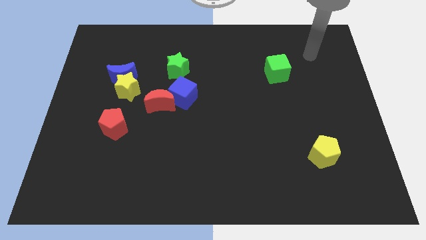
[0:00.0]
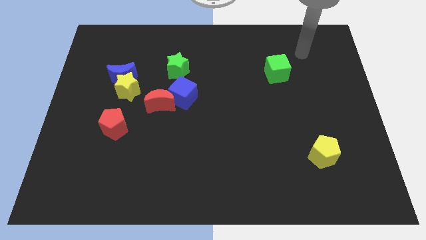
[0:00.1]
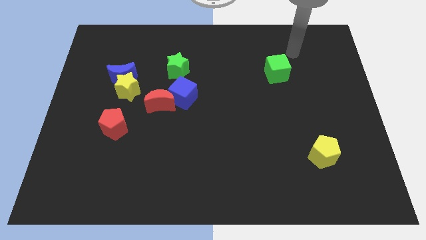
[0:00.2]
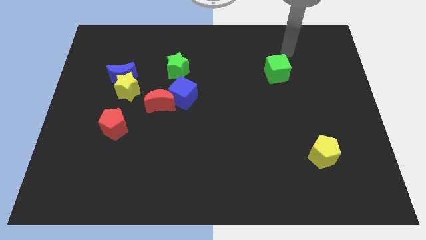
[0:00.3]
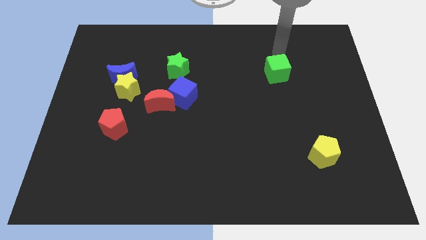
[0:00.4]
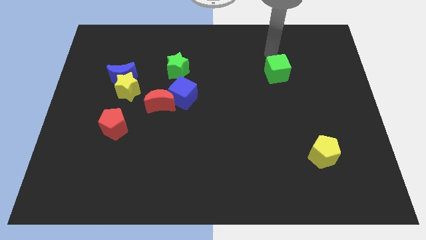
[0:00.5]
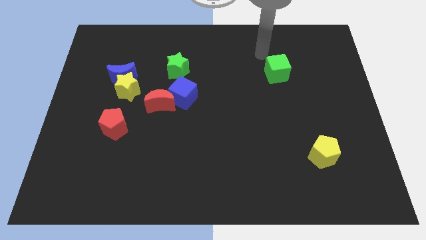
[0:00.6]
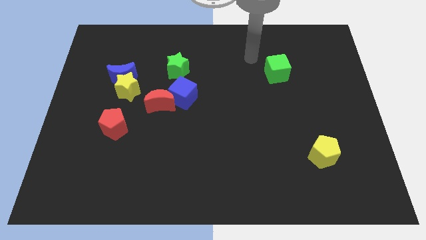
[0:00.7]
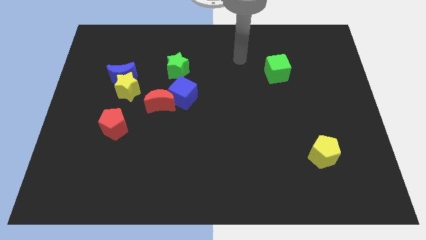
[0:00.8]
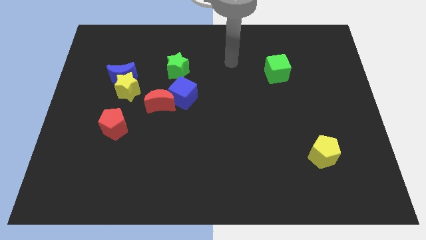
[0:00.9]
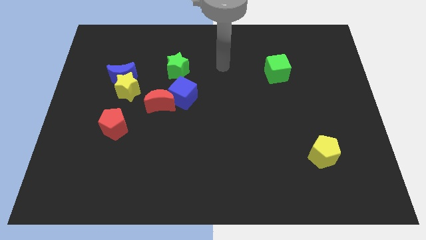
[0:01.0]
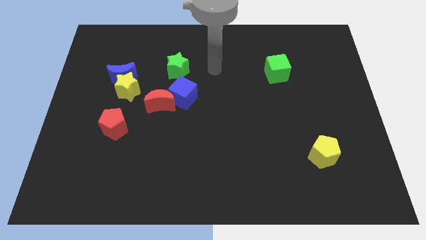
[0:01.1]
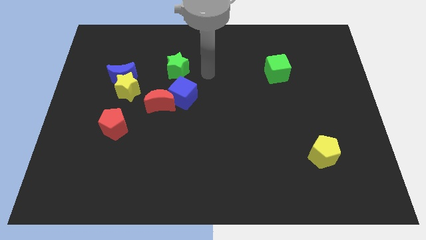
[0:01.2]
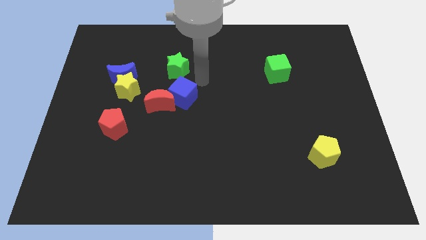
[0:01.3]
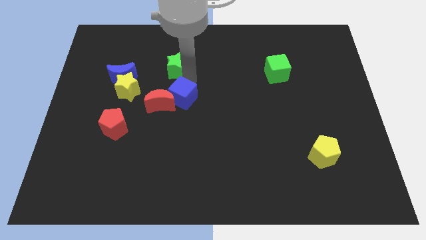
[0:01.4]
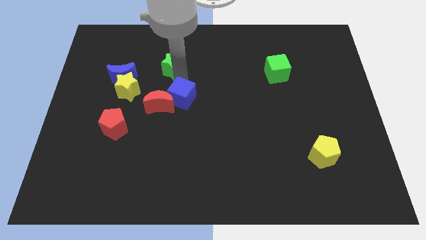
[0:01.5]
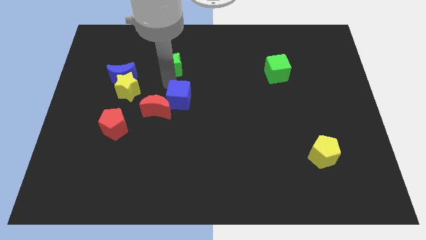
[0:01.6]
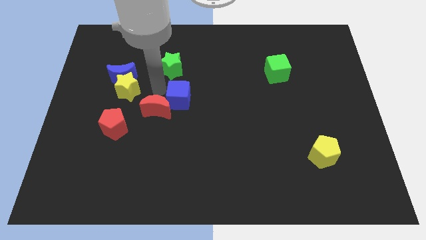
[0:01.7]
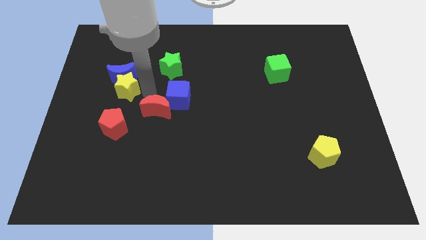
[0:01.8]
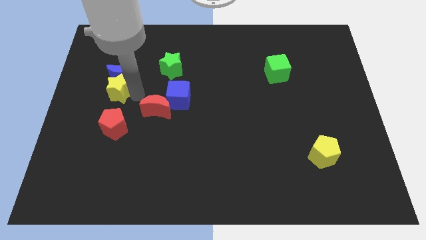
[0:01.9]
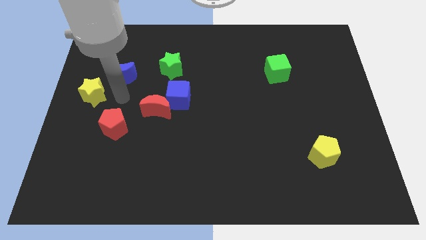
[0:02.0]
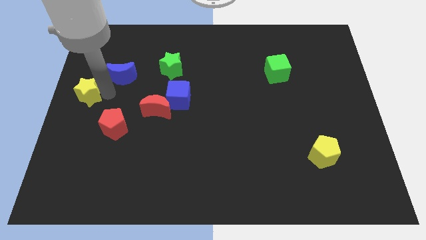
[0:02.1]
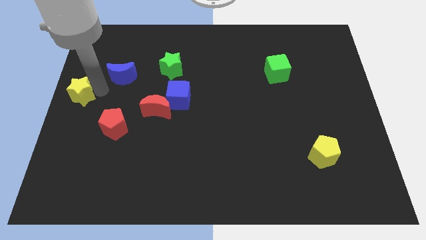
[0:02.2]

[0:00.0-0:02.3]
pull the blue moon apart from the yellow star

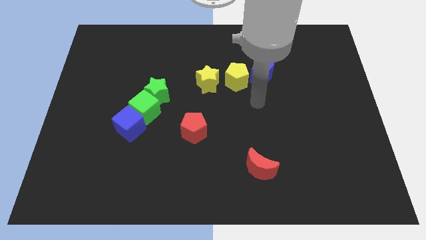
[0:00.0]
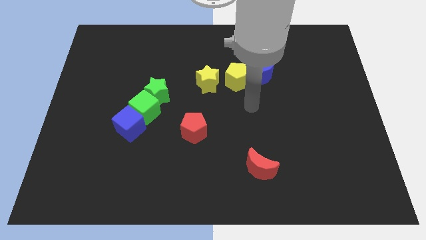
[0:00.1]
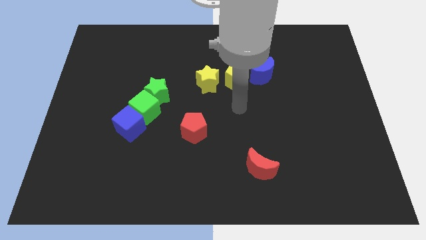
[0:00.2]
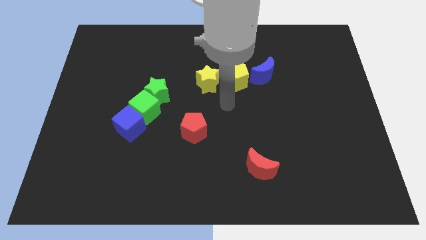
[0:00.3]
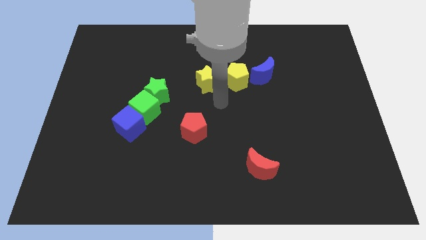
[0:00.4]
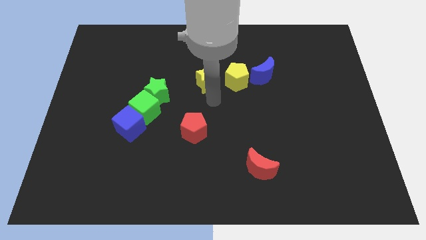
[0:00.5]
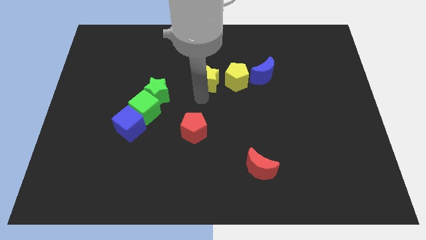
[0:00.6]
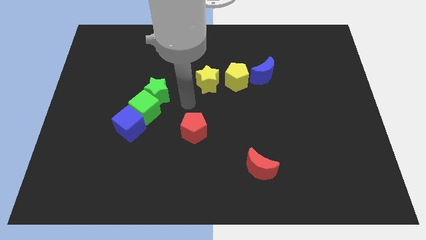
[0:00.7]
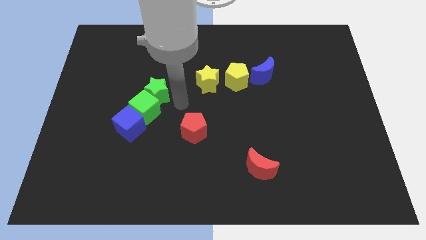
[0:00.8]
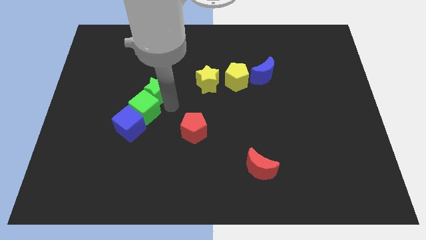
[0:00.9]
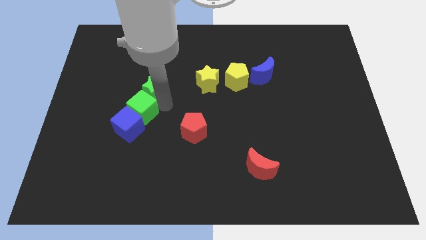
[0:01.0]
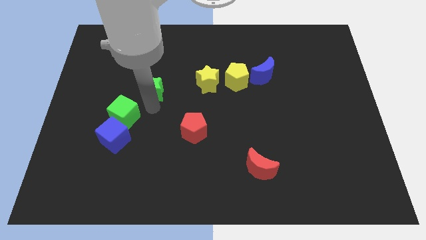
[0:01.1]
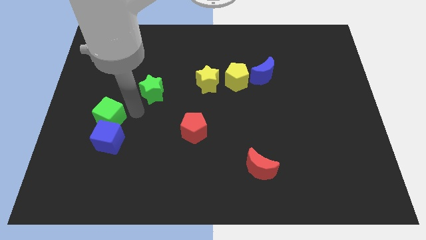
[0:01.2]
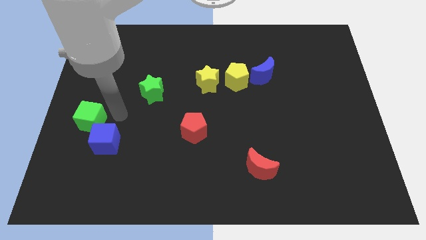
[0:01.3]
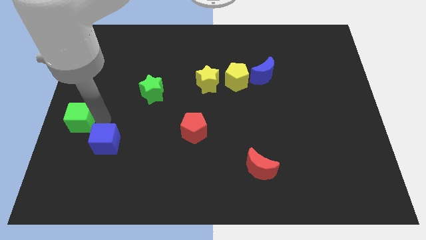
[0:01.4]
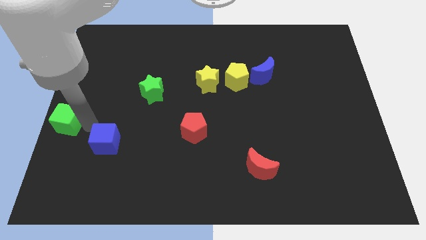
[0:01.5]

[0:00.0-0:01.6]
move the blue cube away from the green cube

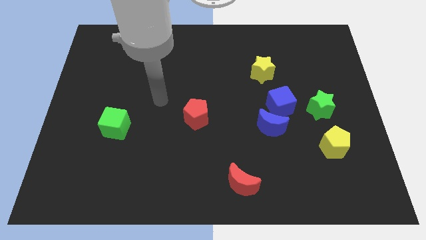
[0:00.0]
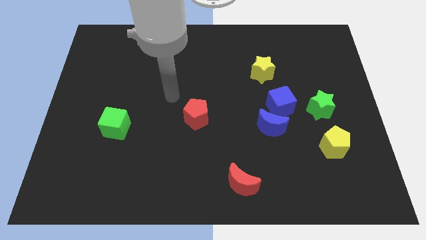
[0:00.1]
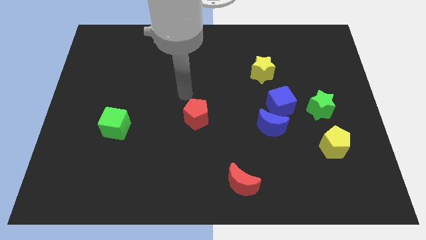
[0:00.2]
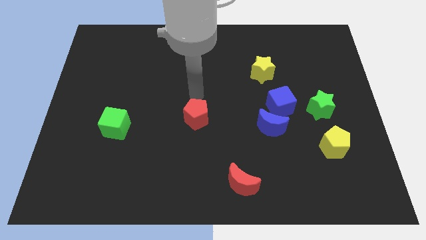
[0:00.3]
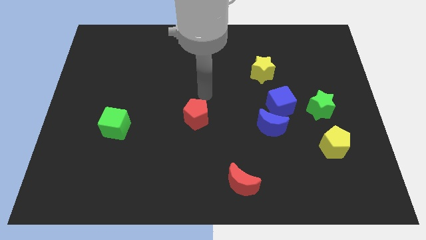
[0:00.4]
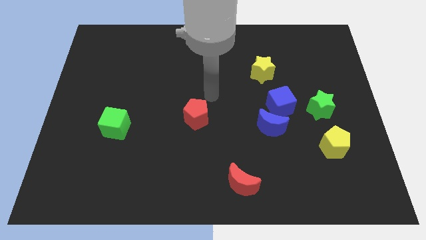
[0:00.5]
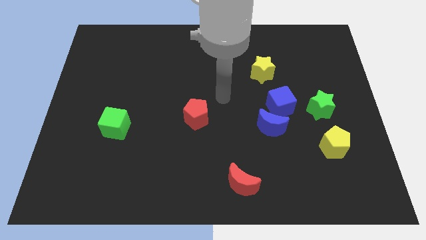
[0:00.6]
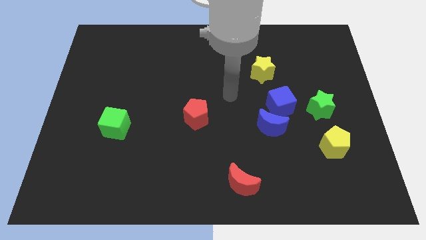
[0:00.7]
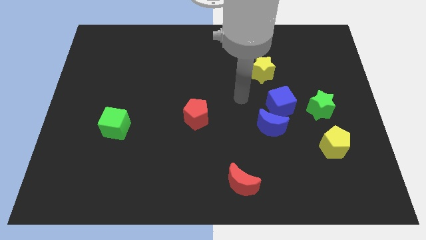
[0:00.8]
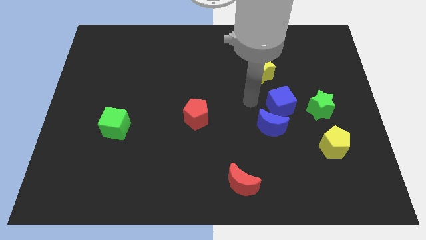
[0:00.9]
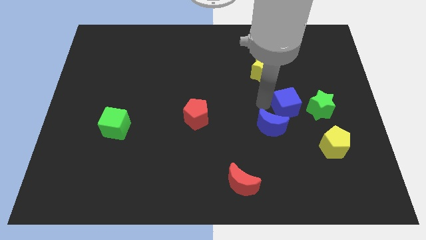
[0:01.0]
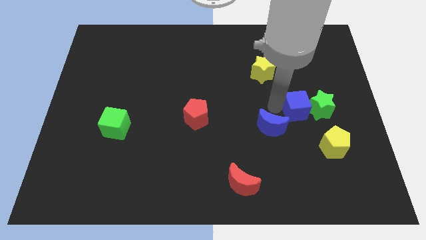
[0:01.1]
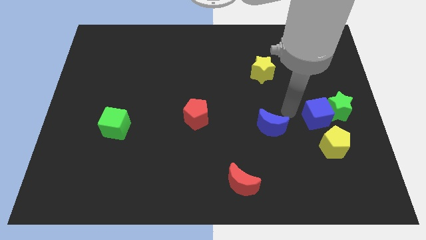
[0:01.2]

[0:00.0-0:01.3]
move the blue moon away from the blue cube

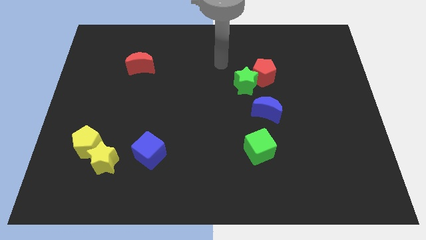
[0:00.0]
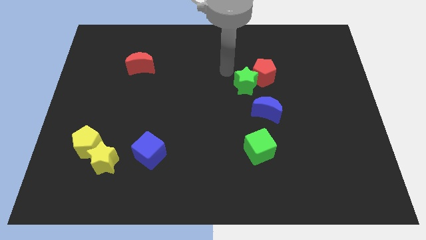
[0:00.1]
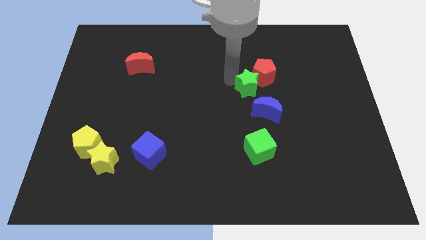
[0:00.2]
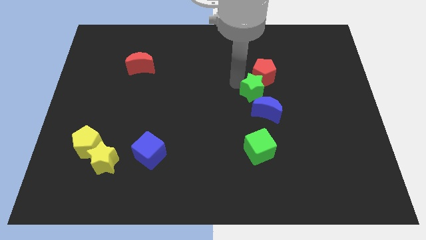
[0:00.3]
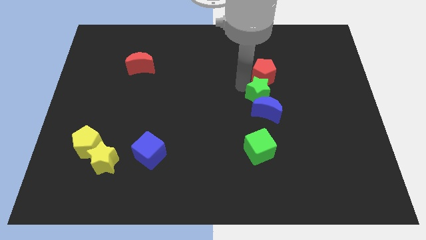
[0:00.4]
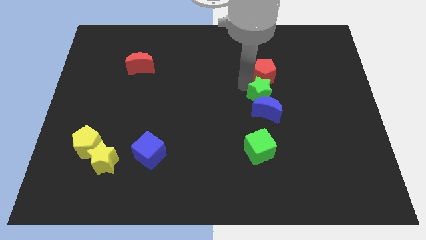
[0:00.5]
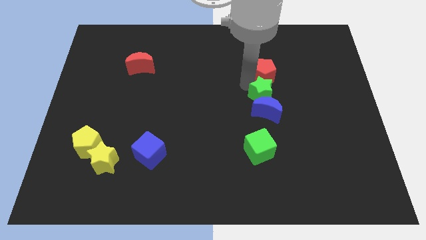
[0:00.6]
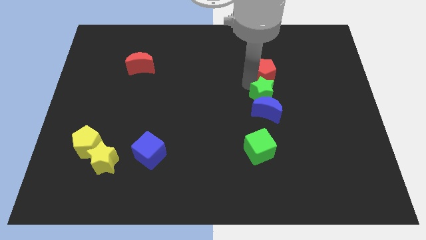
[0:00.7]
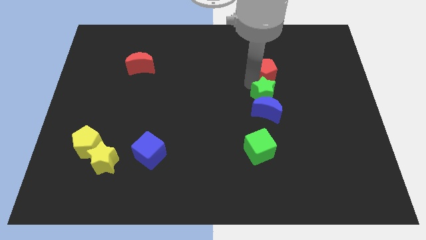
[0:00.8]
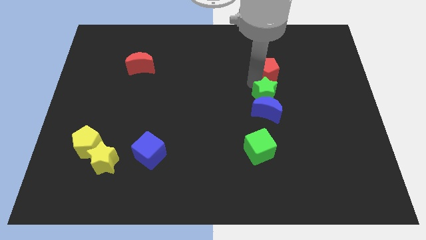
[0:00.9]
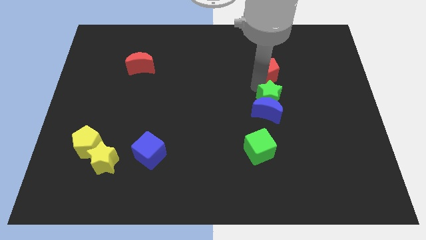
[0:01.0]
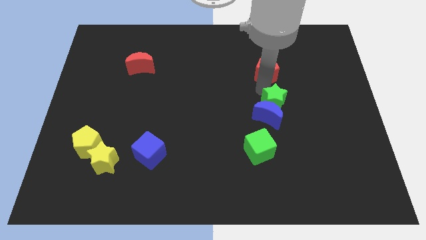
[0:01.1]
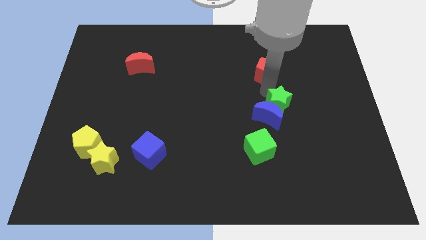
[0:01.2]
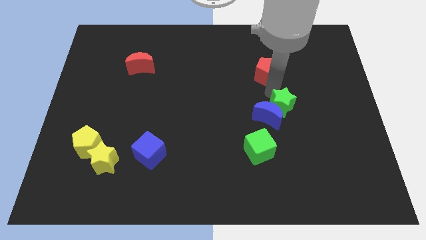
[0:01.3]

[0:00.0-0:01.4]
pull the red pentagon apart from the green star

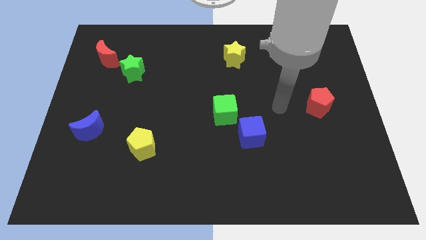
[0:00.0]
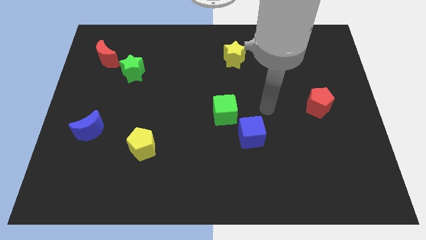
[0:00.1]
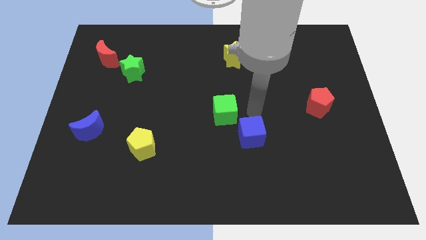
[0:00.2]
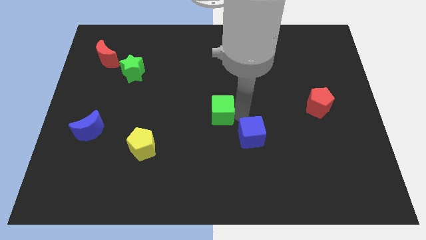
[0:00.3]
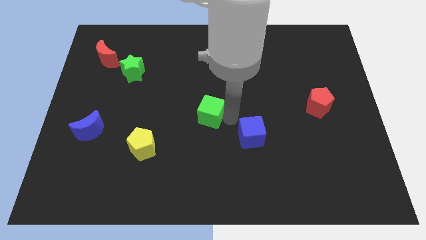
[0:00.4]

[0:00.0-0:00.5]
separate the blue cube from the green cube

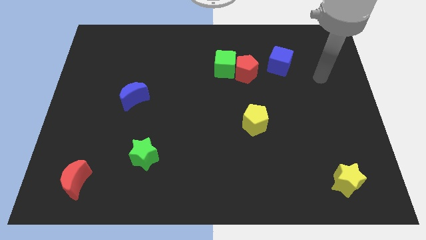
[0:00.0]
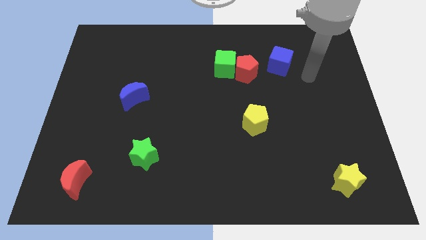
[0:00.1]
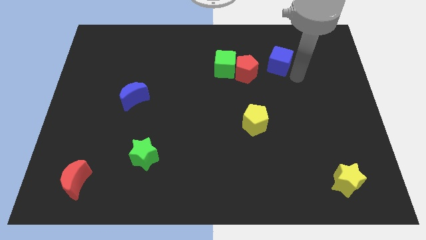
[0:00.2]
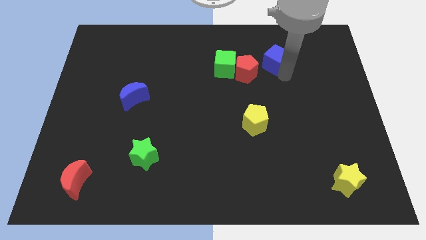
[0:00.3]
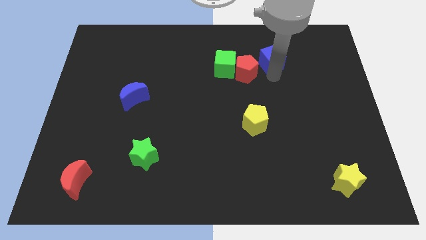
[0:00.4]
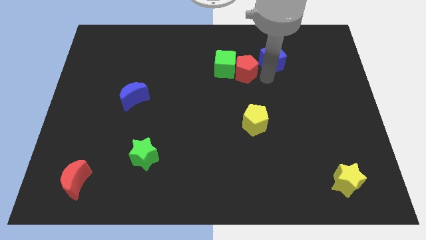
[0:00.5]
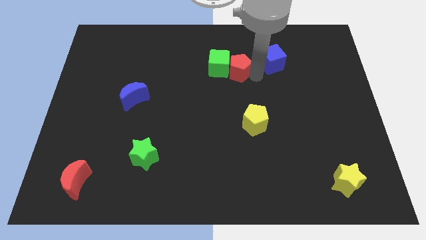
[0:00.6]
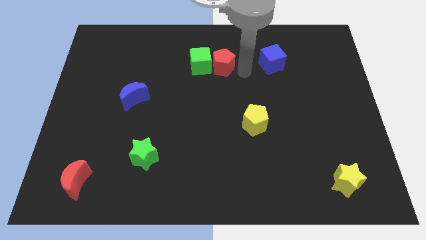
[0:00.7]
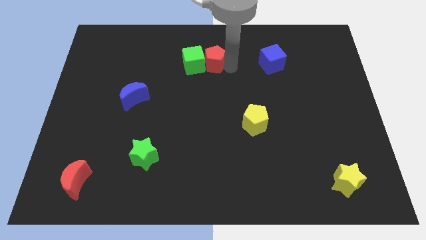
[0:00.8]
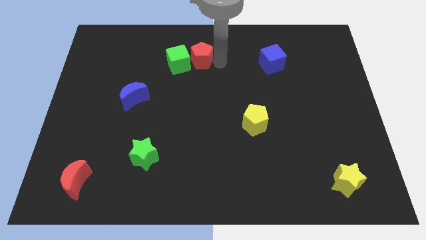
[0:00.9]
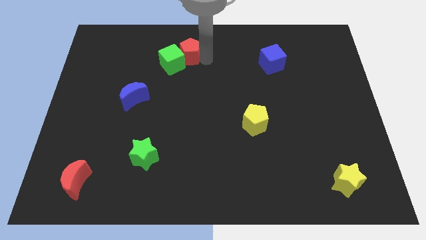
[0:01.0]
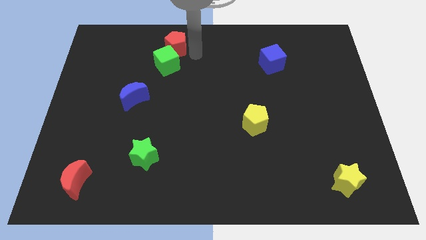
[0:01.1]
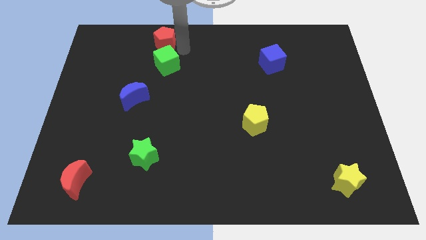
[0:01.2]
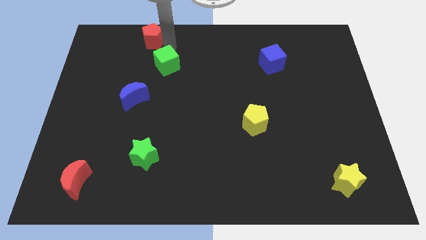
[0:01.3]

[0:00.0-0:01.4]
separate the green cube from the red pentagon

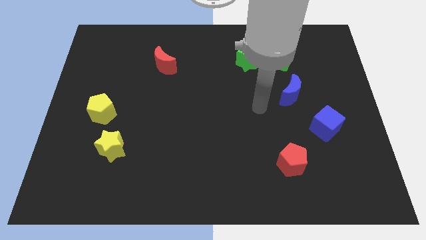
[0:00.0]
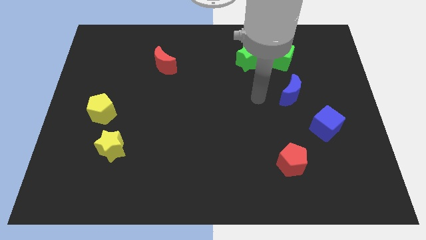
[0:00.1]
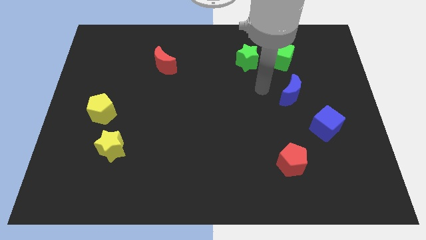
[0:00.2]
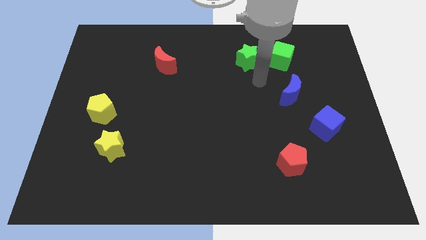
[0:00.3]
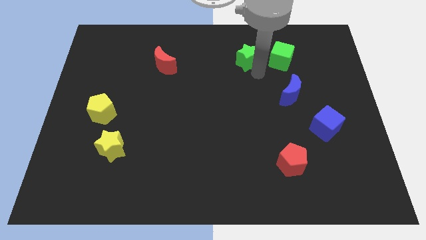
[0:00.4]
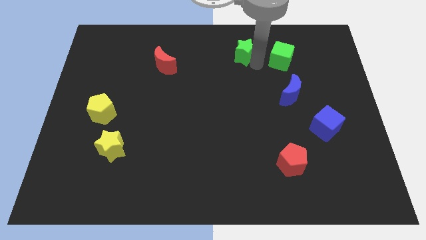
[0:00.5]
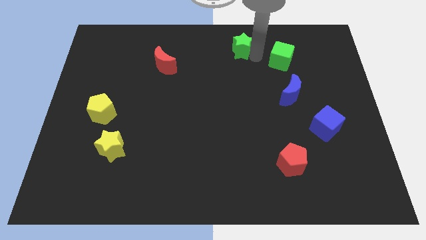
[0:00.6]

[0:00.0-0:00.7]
move the green cube away from the green star

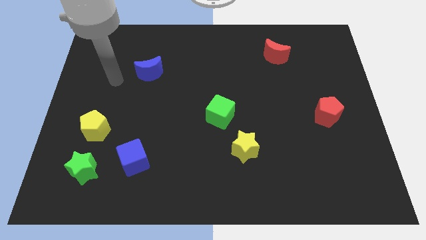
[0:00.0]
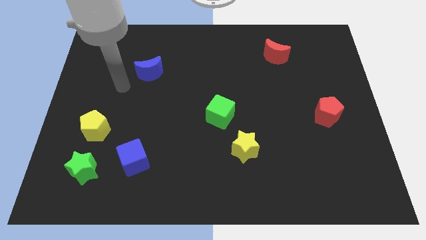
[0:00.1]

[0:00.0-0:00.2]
separate the blue cube from the green star
